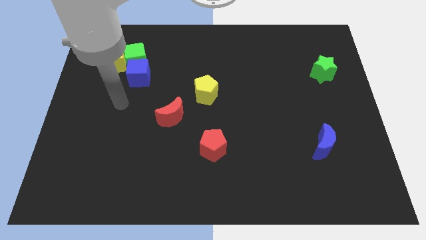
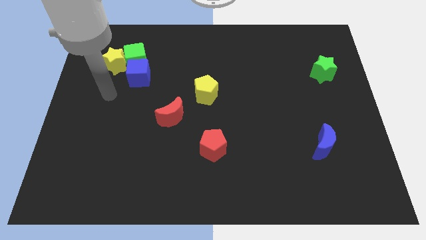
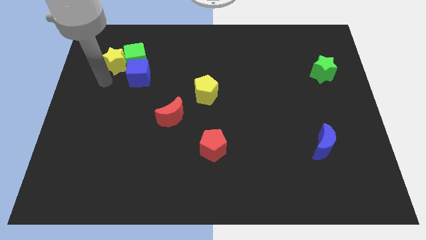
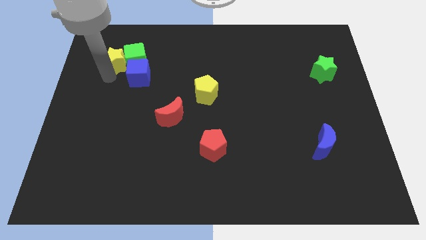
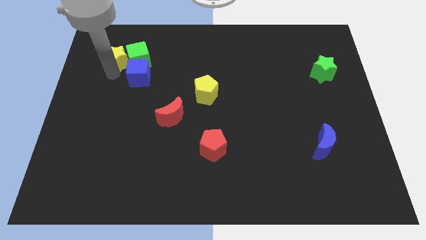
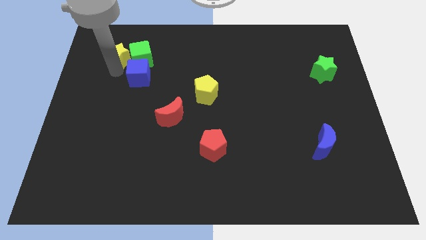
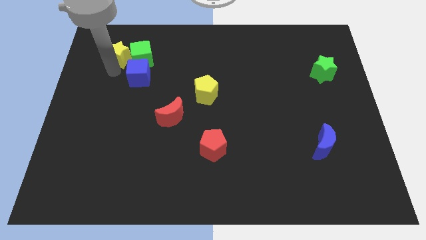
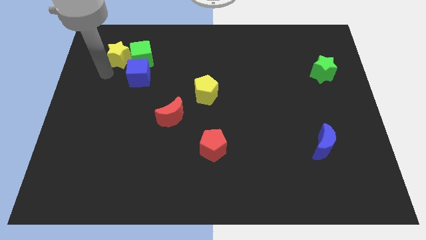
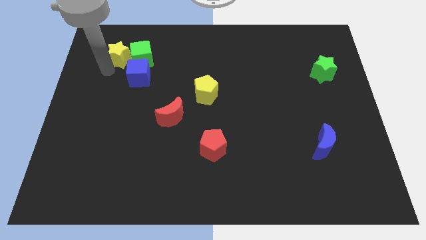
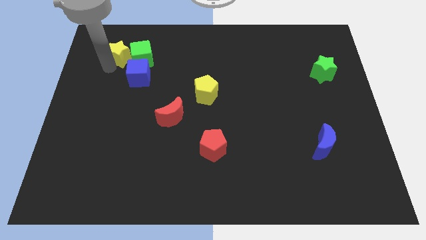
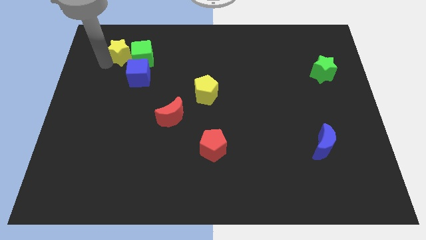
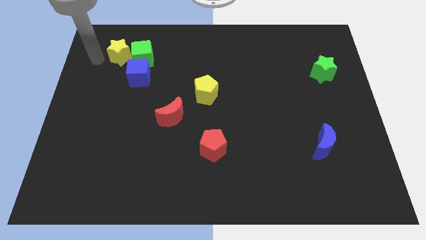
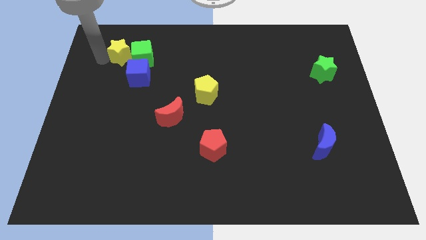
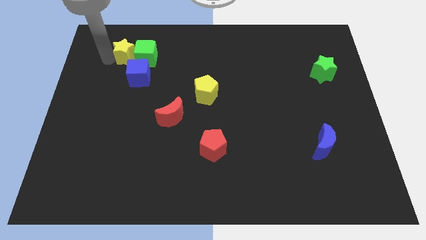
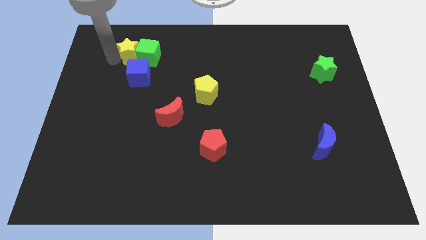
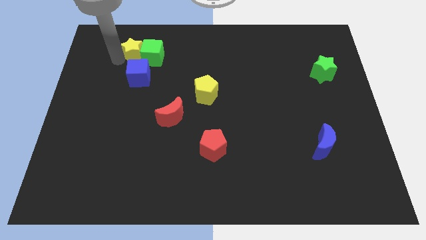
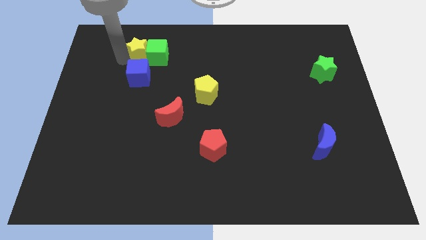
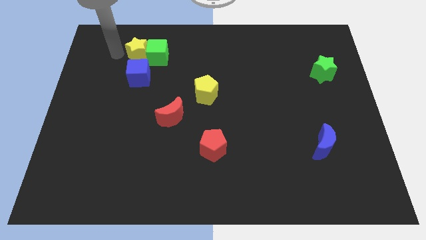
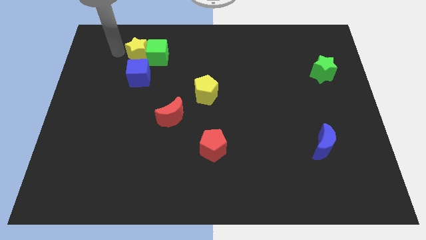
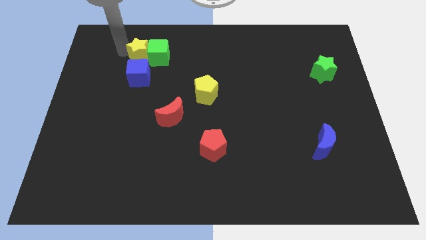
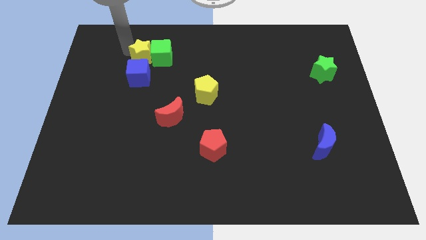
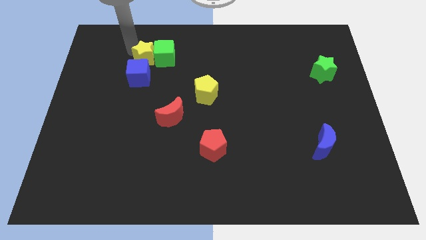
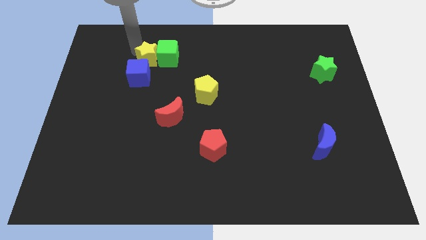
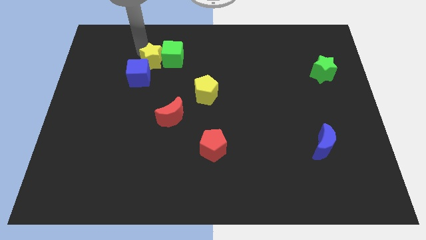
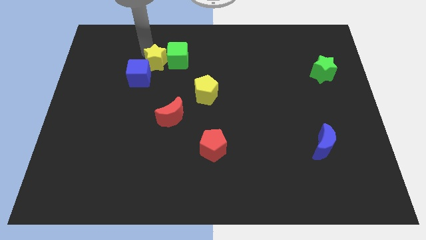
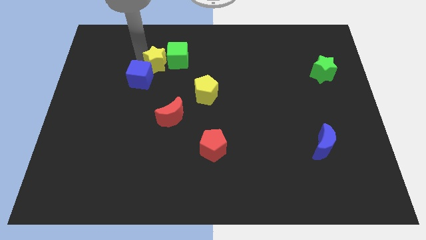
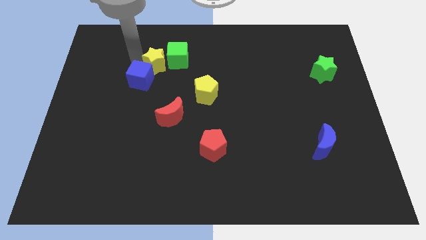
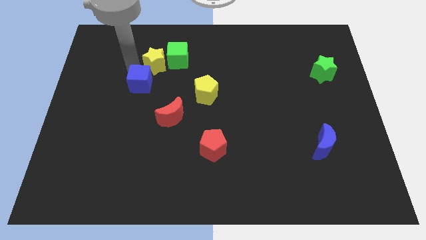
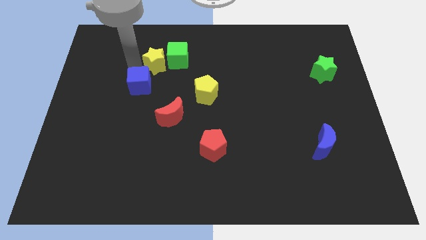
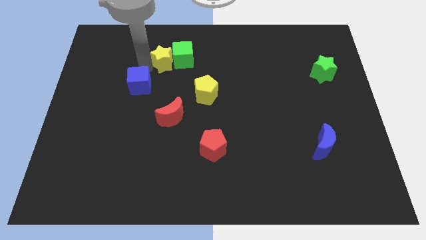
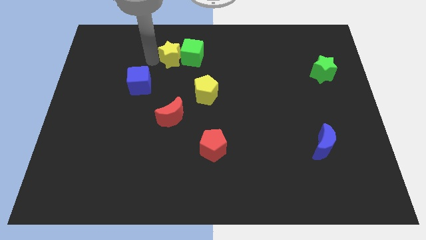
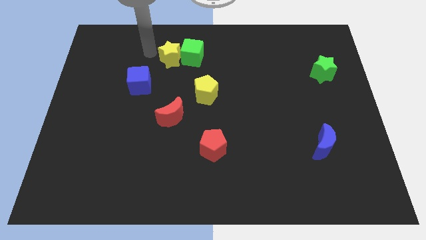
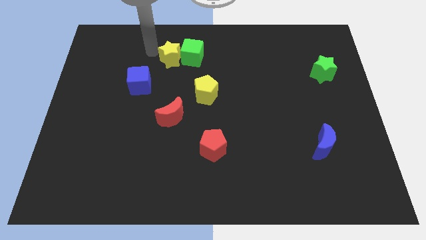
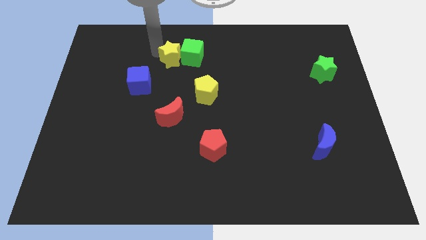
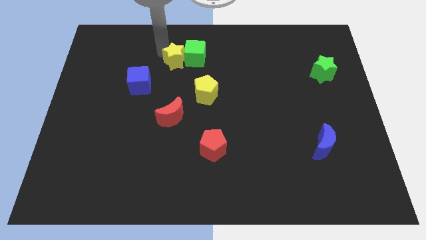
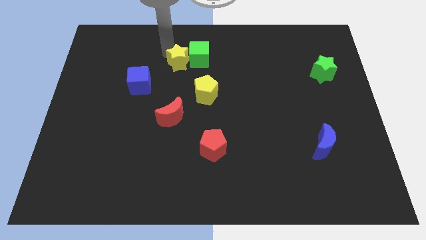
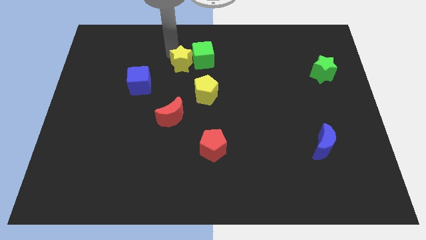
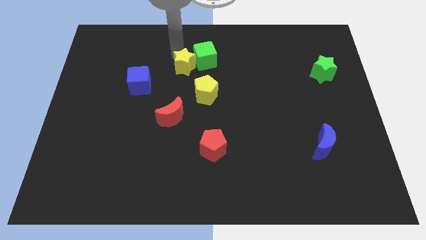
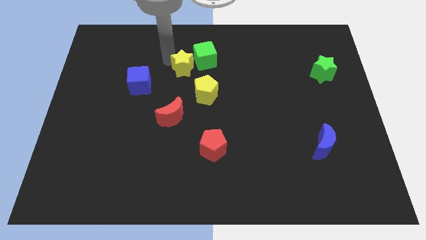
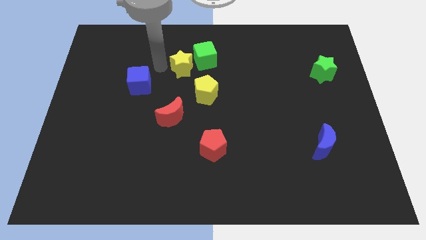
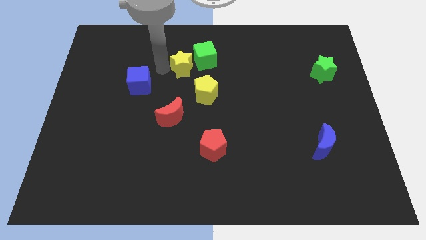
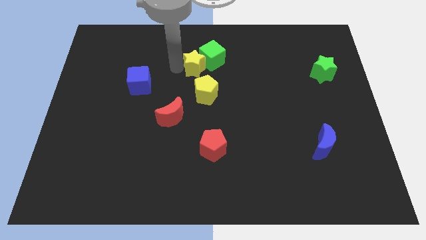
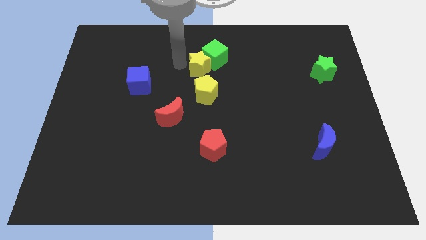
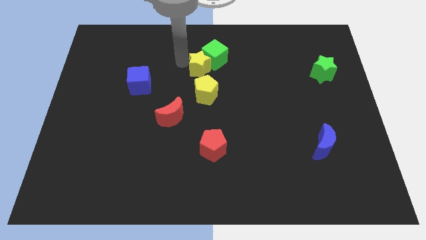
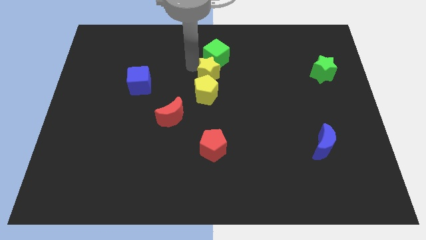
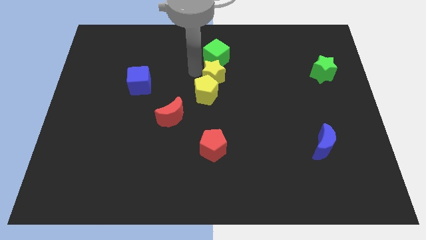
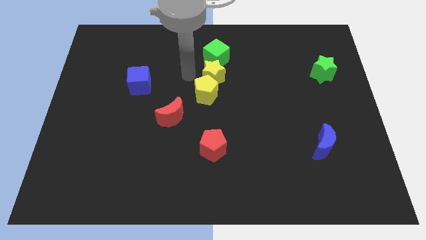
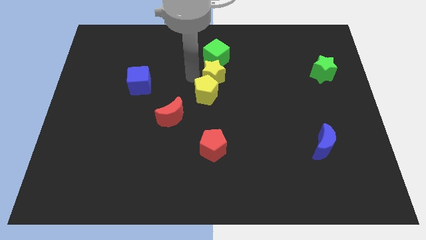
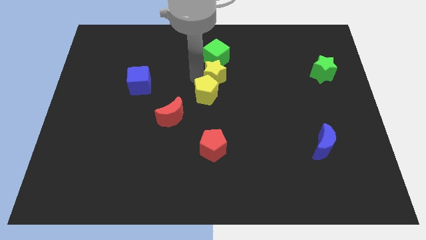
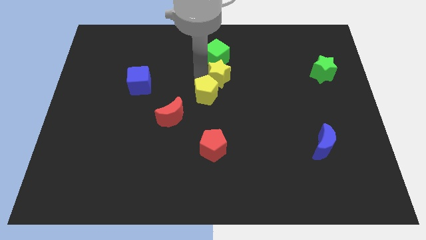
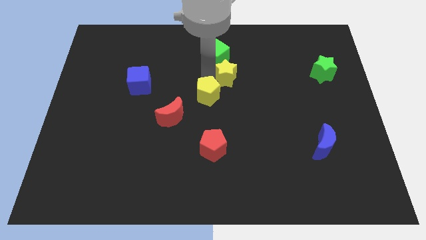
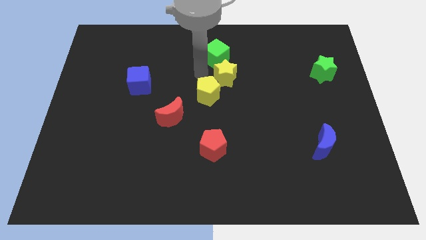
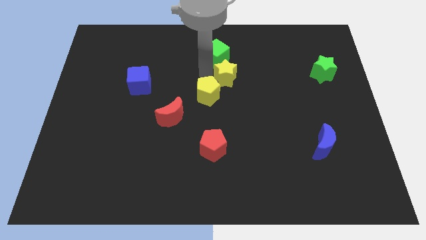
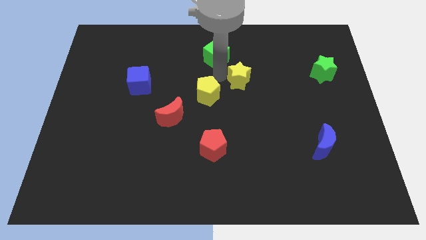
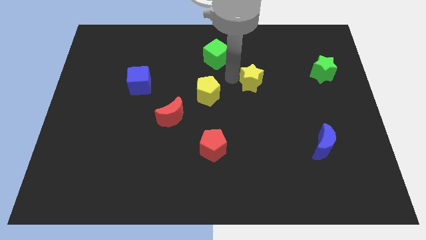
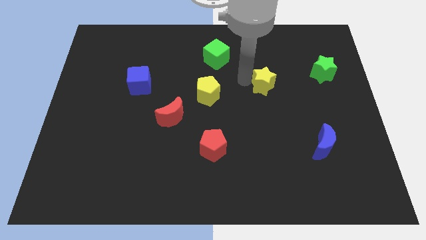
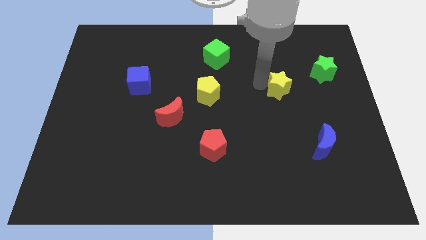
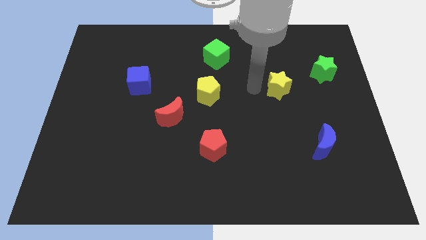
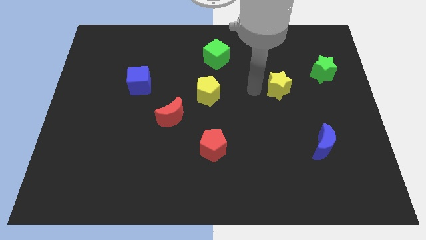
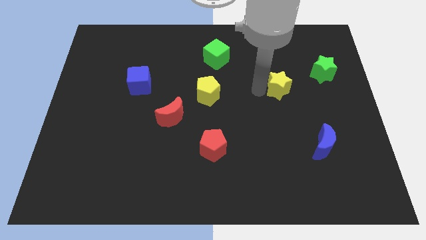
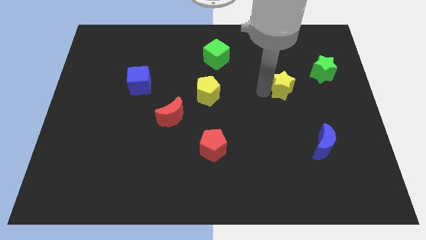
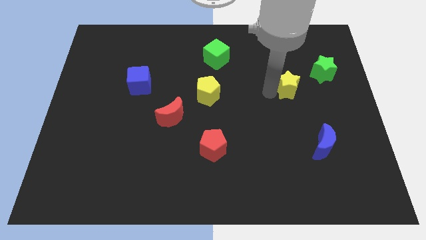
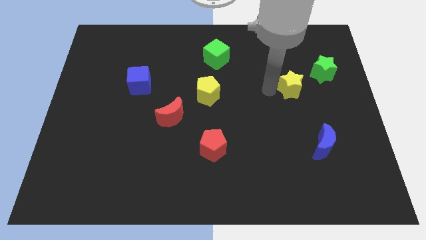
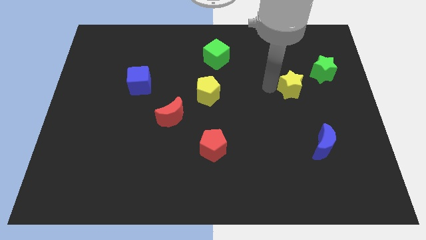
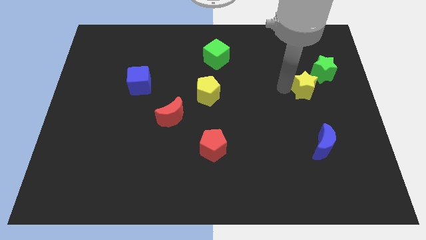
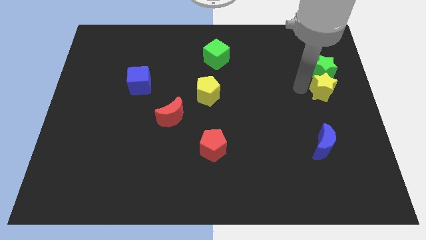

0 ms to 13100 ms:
put the yellow star to the center right
